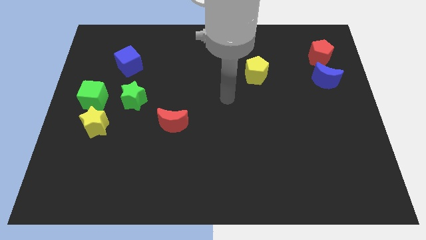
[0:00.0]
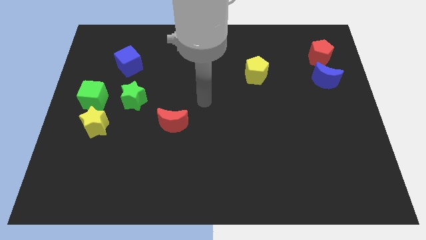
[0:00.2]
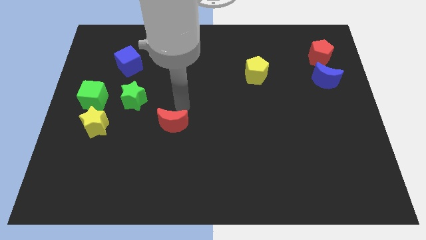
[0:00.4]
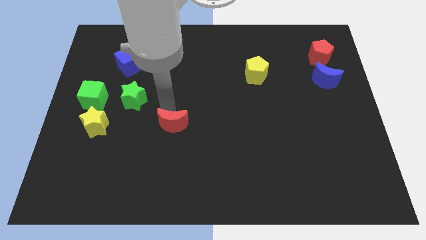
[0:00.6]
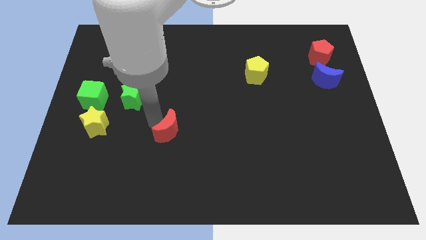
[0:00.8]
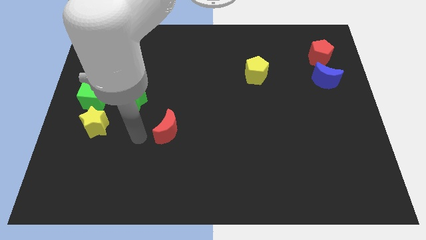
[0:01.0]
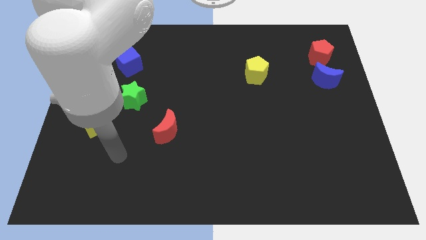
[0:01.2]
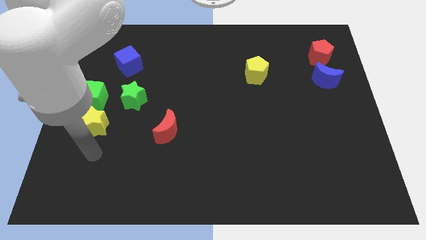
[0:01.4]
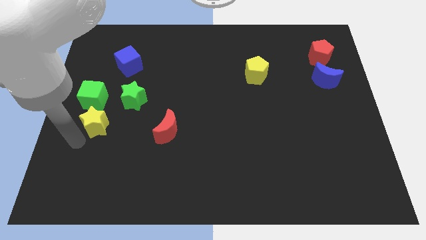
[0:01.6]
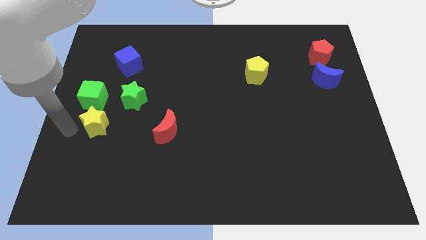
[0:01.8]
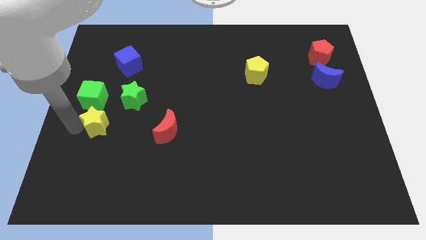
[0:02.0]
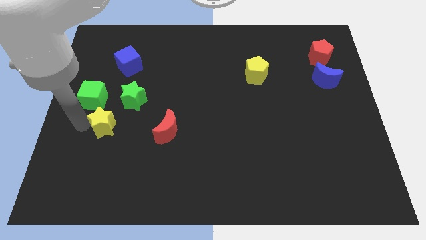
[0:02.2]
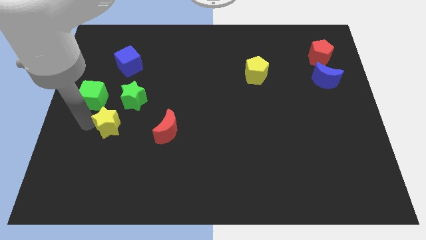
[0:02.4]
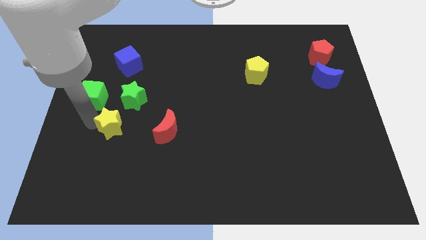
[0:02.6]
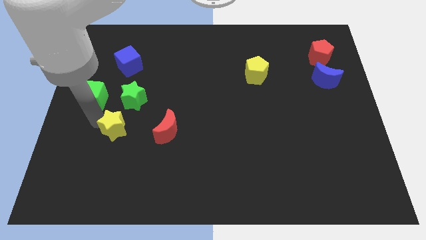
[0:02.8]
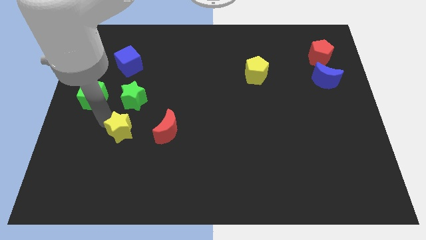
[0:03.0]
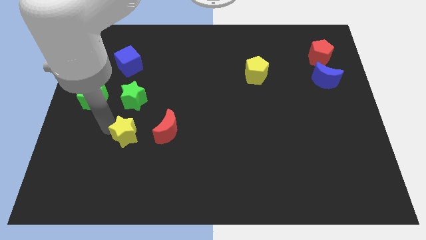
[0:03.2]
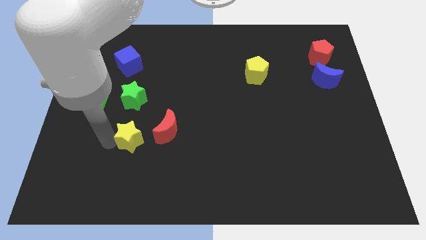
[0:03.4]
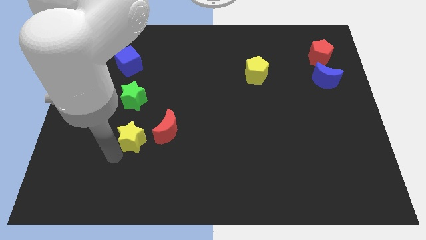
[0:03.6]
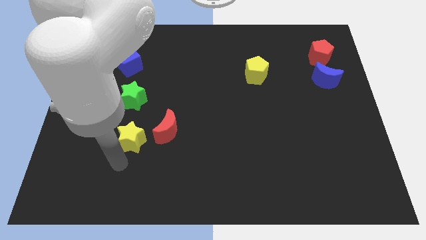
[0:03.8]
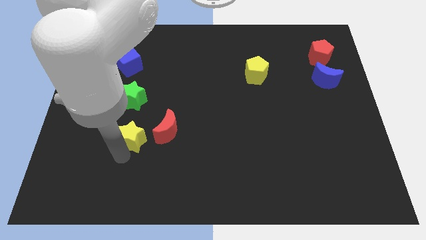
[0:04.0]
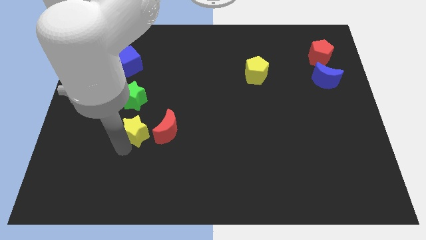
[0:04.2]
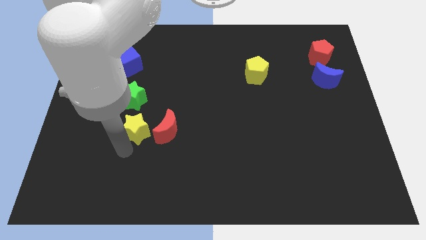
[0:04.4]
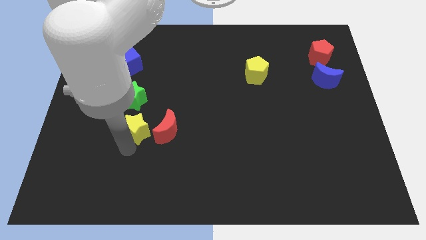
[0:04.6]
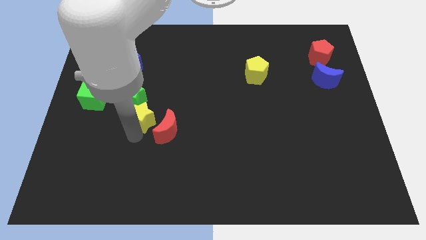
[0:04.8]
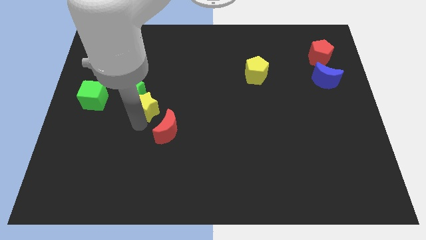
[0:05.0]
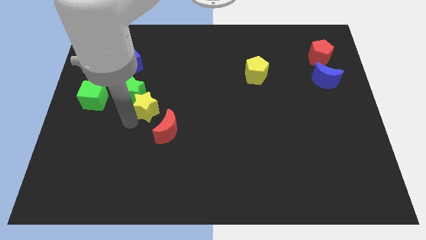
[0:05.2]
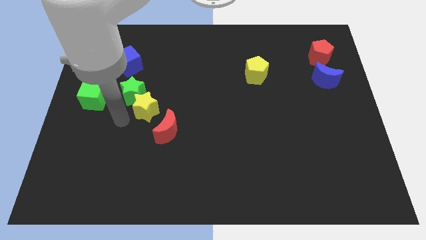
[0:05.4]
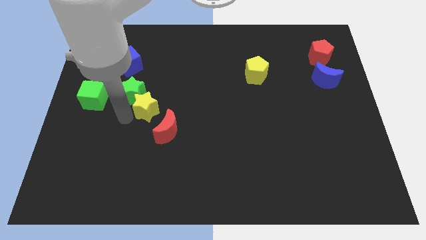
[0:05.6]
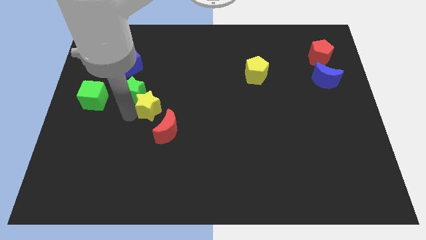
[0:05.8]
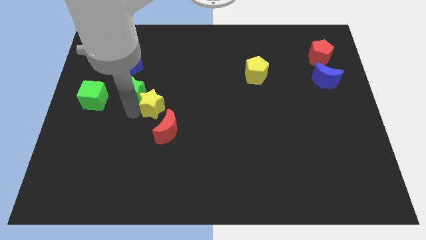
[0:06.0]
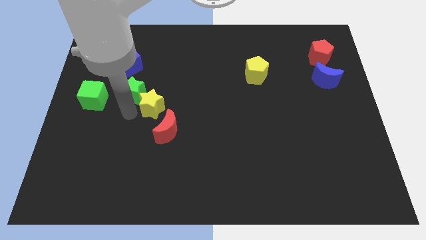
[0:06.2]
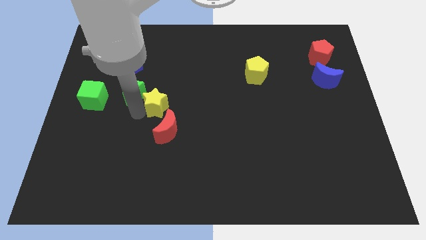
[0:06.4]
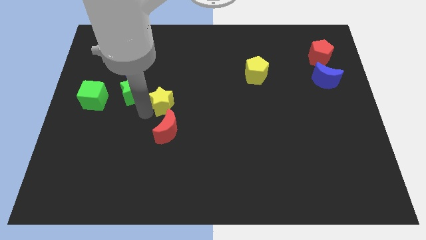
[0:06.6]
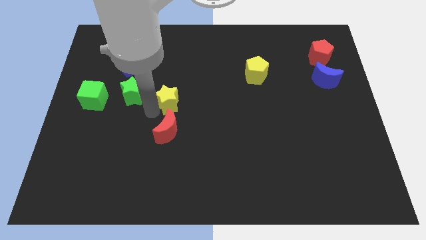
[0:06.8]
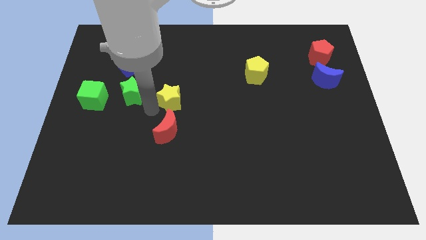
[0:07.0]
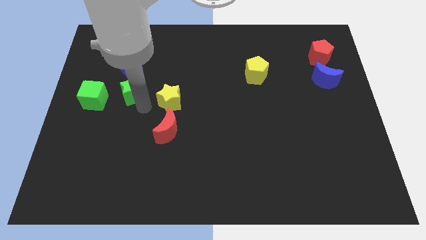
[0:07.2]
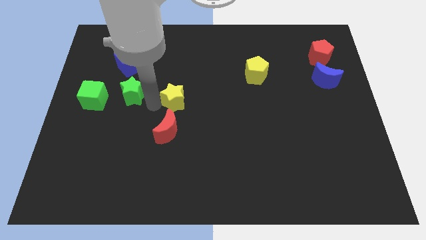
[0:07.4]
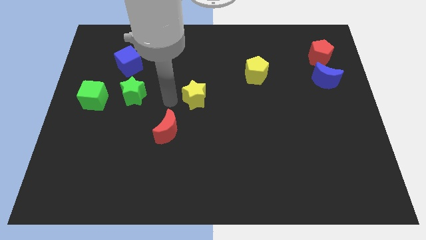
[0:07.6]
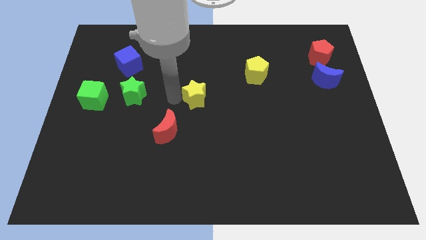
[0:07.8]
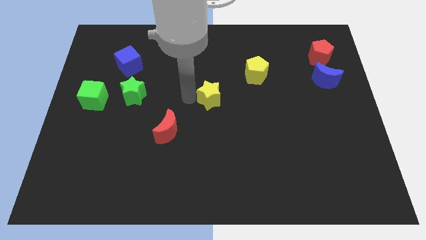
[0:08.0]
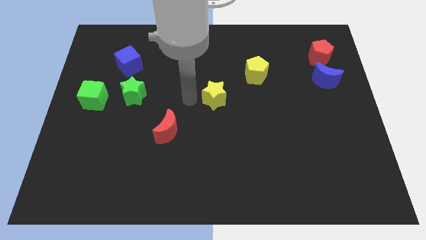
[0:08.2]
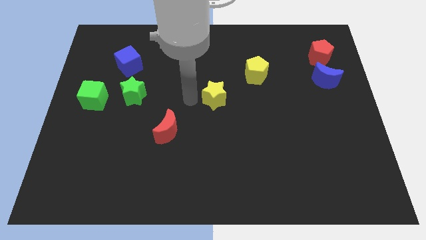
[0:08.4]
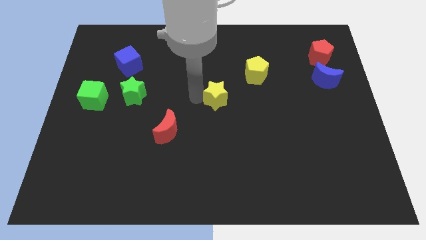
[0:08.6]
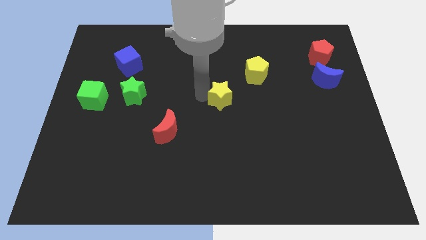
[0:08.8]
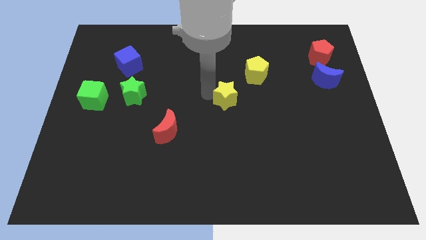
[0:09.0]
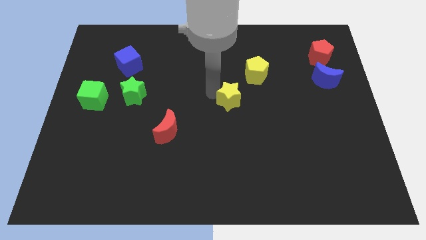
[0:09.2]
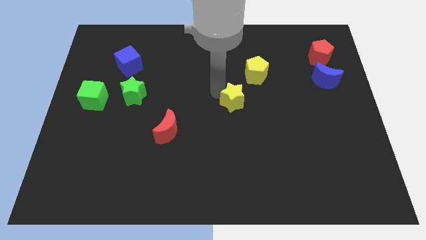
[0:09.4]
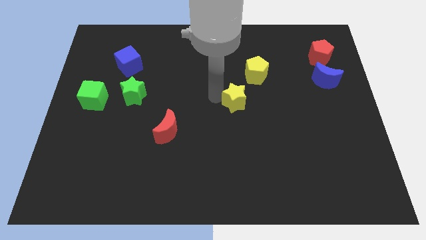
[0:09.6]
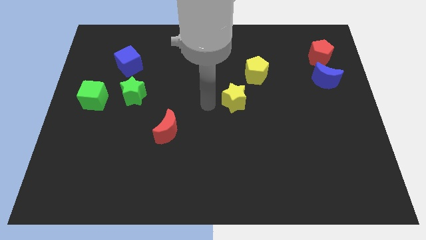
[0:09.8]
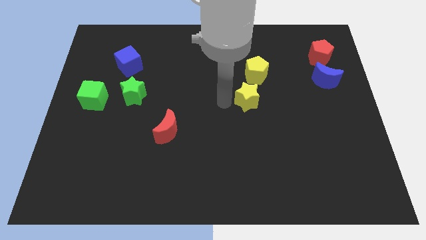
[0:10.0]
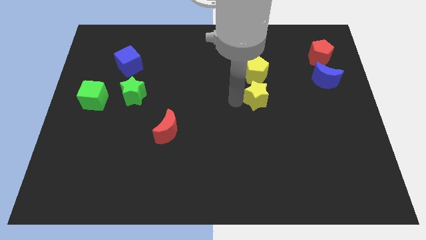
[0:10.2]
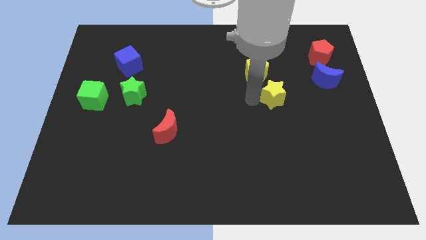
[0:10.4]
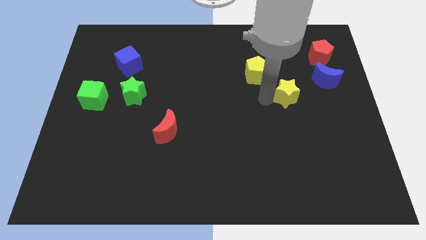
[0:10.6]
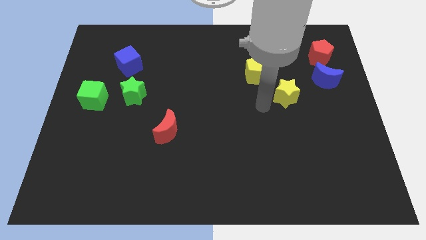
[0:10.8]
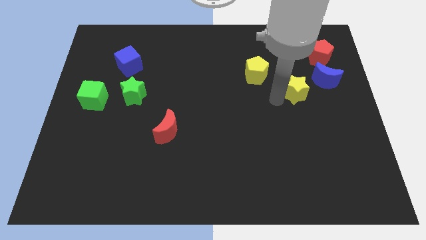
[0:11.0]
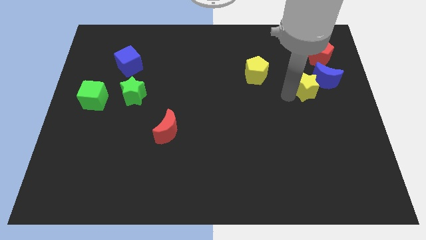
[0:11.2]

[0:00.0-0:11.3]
move the yellow star towards the blue moon

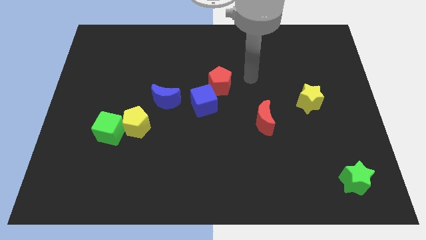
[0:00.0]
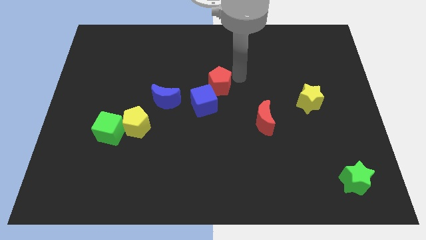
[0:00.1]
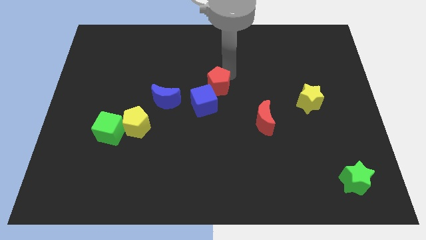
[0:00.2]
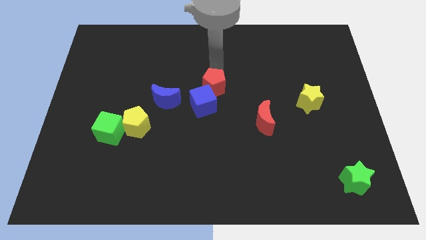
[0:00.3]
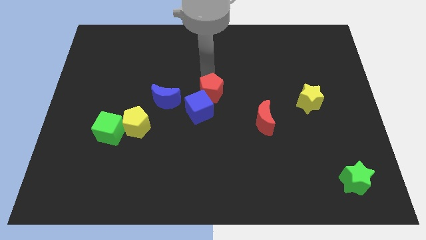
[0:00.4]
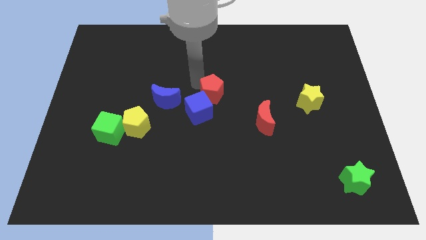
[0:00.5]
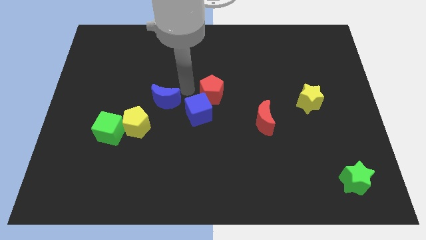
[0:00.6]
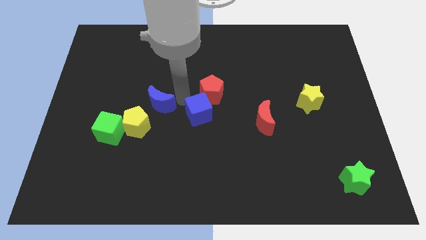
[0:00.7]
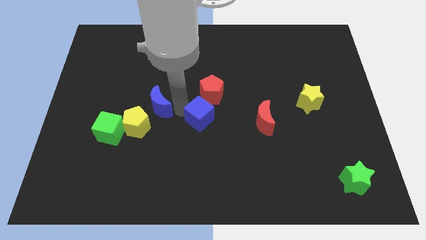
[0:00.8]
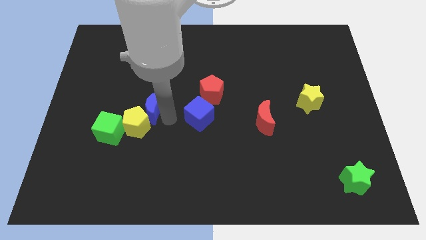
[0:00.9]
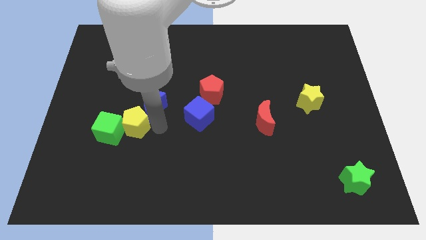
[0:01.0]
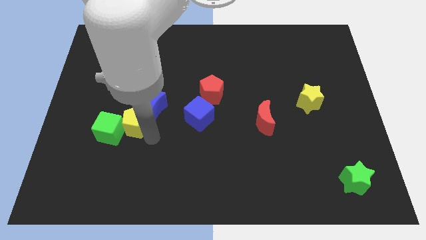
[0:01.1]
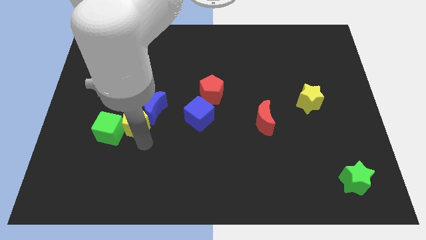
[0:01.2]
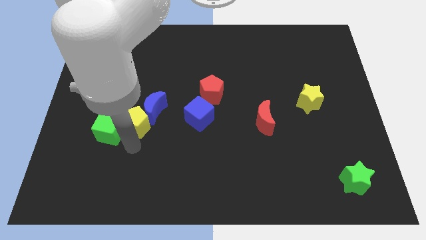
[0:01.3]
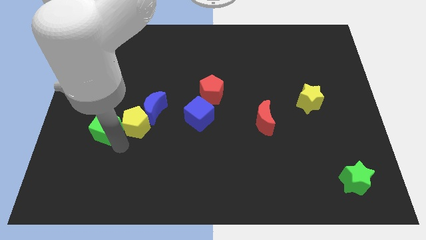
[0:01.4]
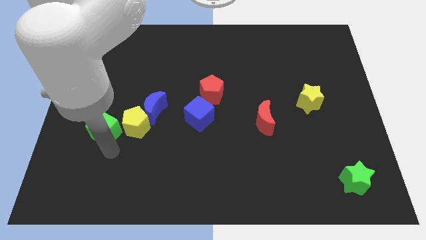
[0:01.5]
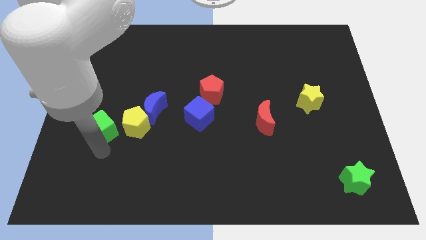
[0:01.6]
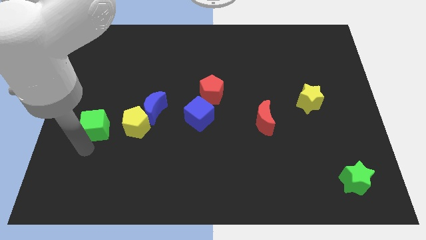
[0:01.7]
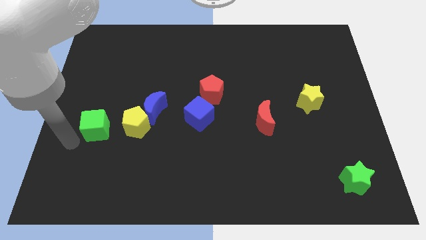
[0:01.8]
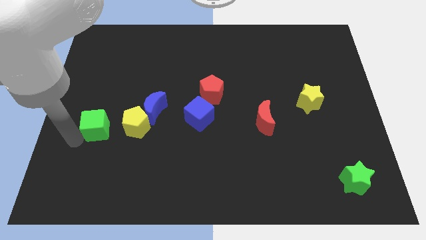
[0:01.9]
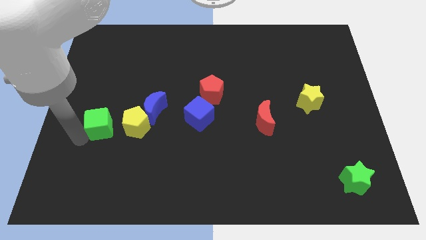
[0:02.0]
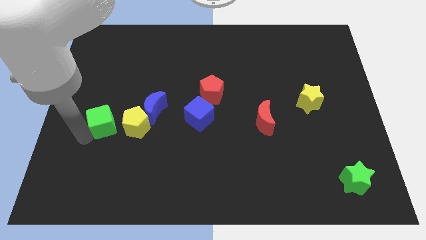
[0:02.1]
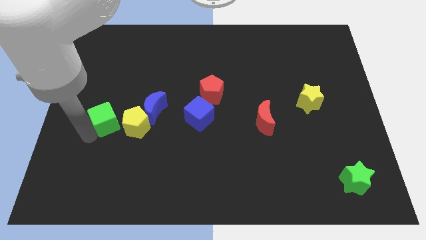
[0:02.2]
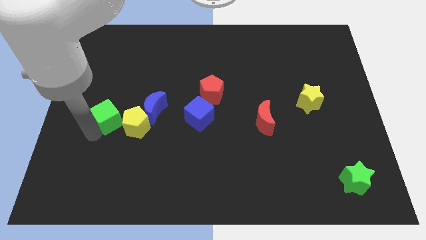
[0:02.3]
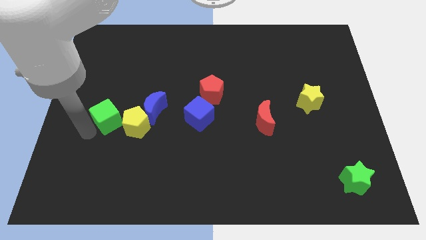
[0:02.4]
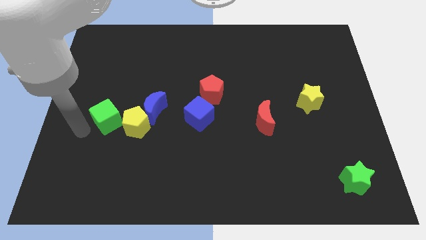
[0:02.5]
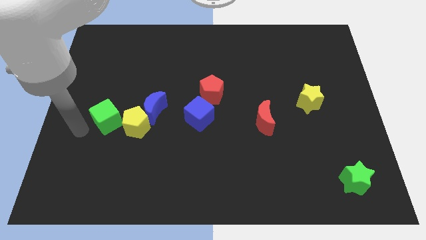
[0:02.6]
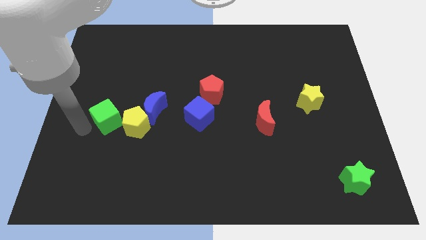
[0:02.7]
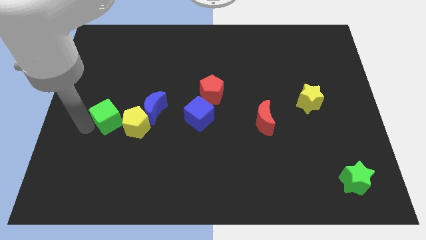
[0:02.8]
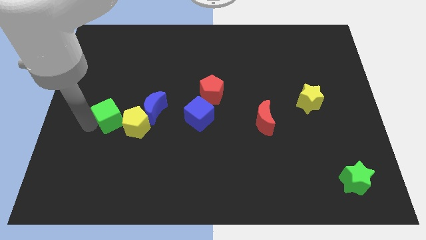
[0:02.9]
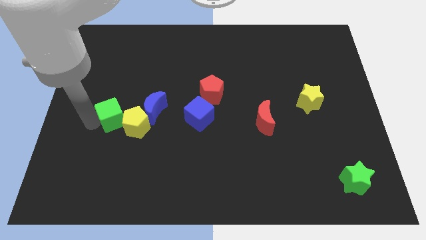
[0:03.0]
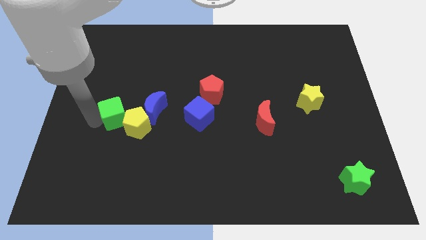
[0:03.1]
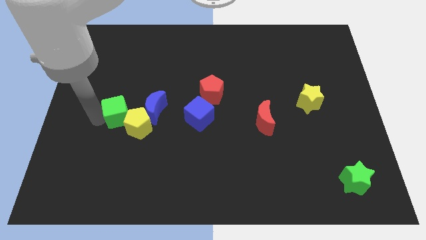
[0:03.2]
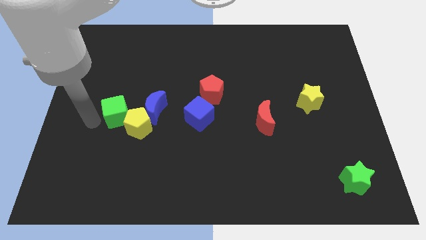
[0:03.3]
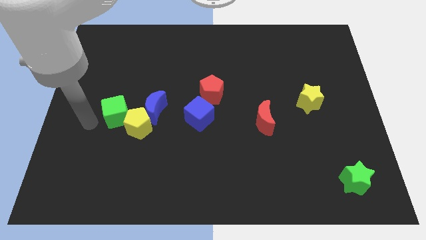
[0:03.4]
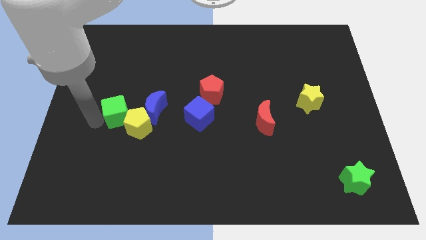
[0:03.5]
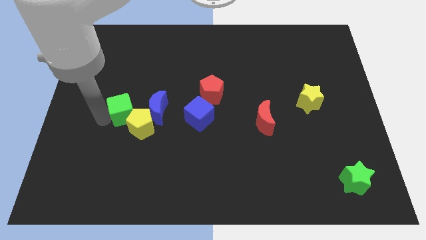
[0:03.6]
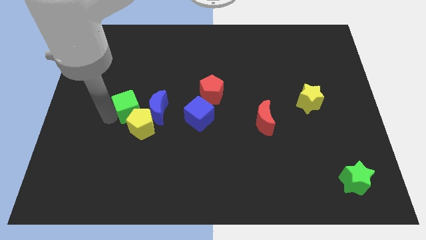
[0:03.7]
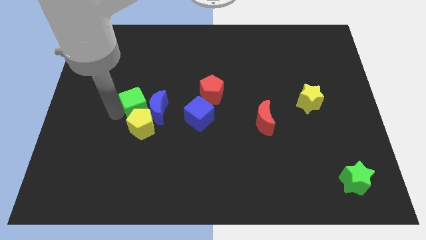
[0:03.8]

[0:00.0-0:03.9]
push the green cube towards the blue moon
